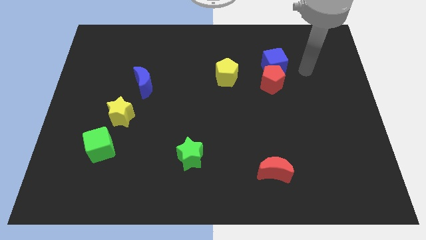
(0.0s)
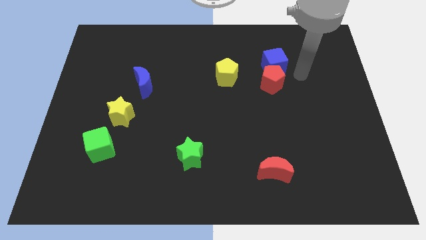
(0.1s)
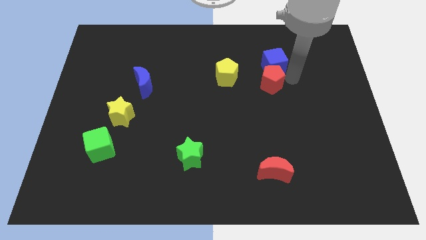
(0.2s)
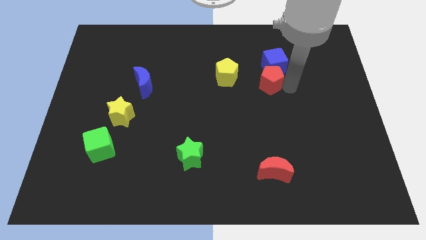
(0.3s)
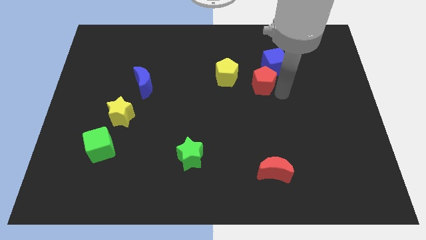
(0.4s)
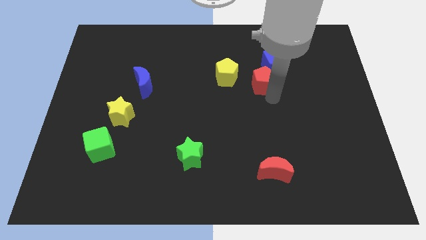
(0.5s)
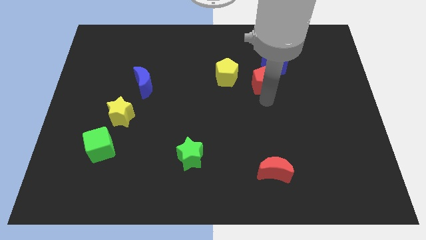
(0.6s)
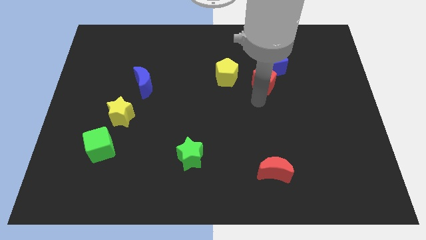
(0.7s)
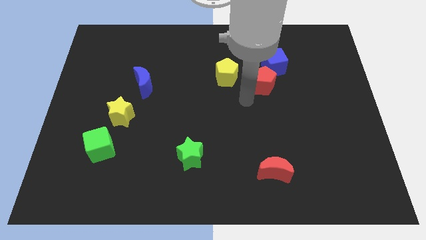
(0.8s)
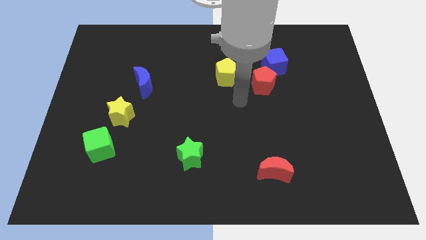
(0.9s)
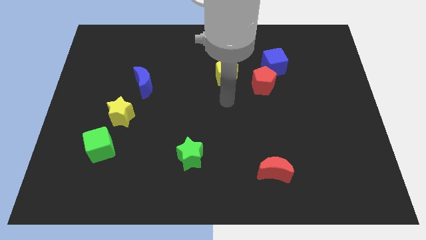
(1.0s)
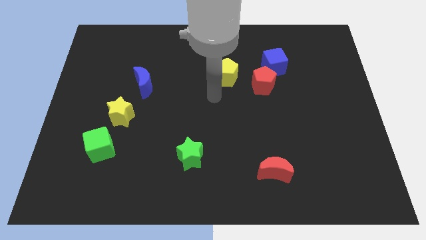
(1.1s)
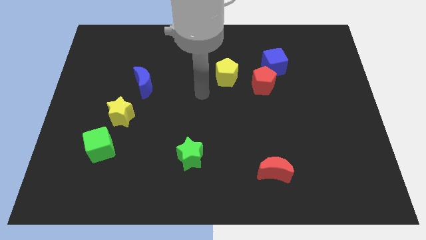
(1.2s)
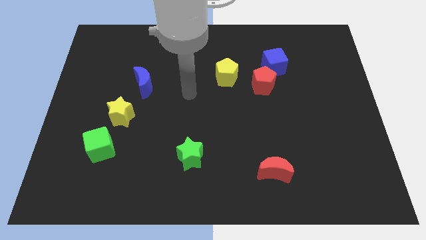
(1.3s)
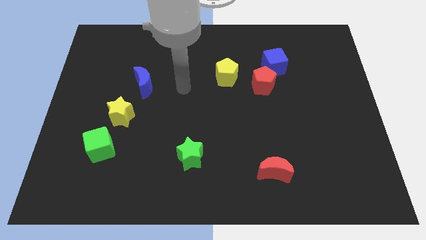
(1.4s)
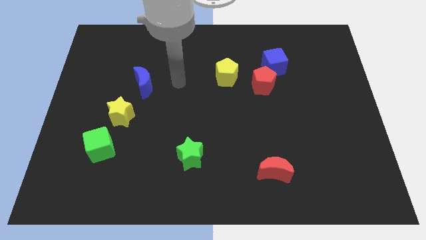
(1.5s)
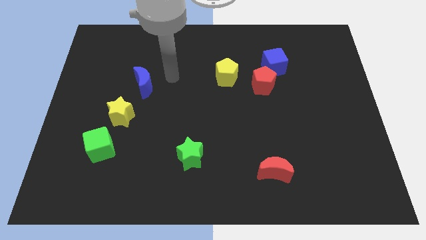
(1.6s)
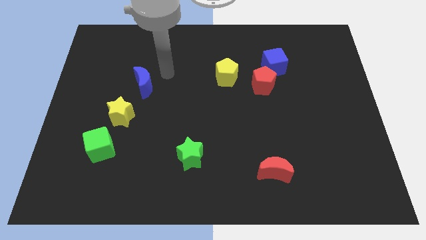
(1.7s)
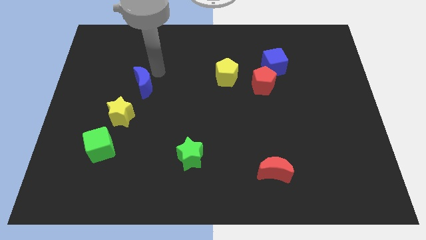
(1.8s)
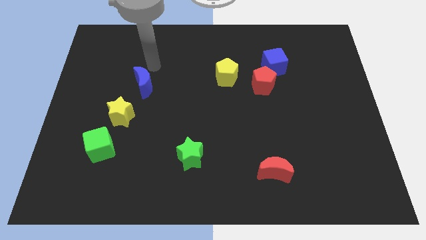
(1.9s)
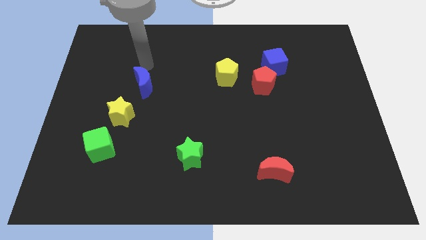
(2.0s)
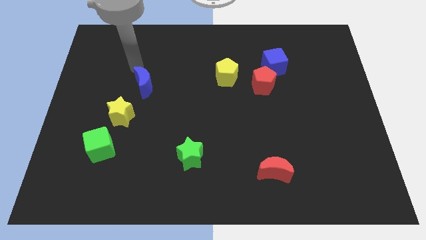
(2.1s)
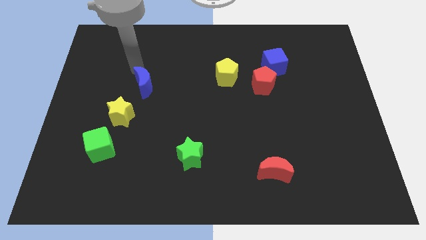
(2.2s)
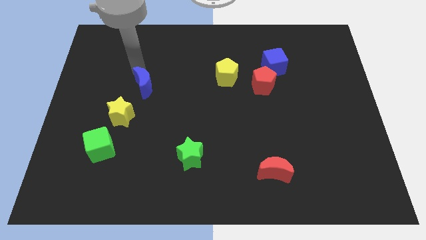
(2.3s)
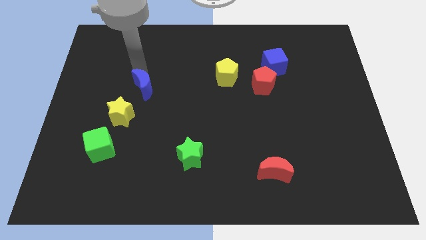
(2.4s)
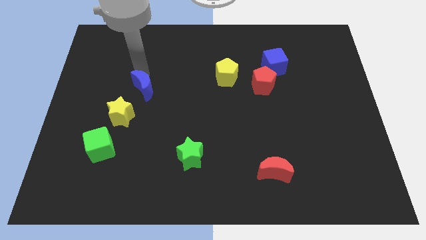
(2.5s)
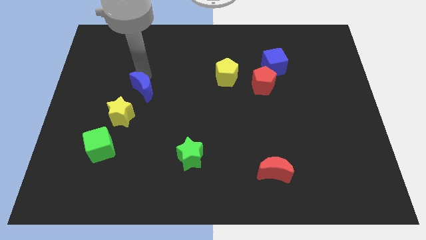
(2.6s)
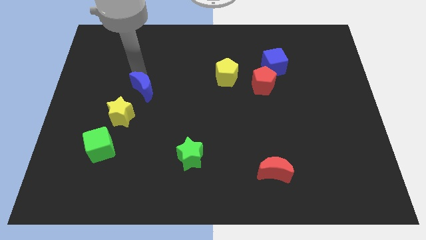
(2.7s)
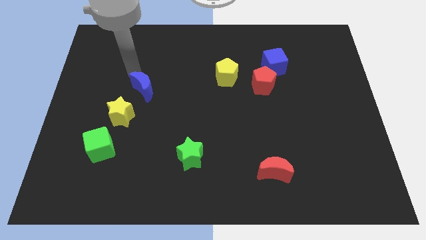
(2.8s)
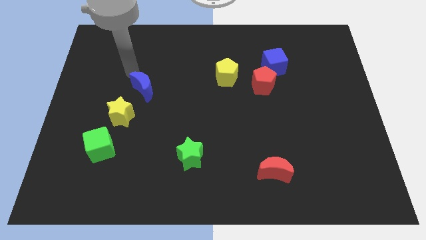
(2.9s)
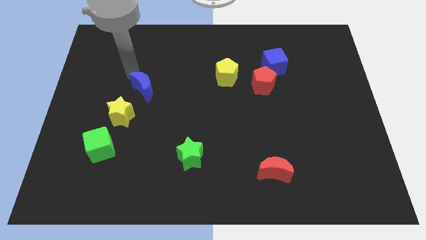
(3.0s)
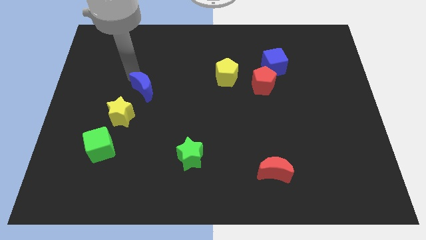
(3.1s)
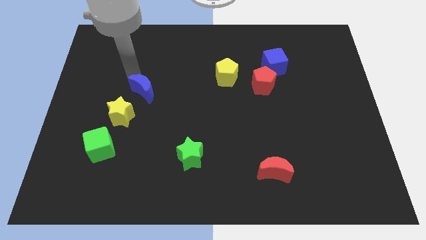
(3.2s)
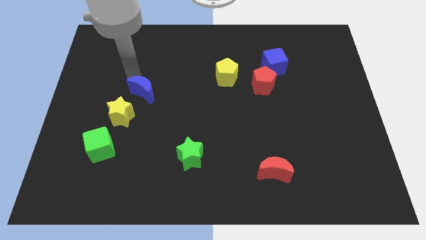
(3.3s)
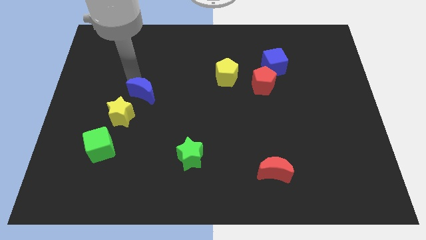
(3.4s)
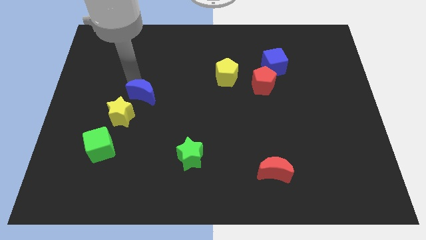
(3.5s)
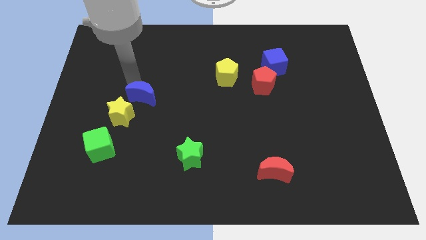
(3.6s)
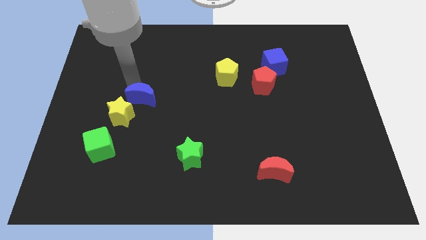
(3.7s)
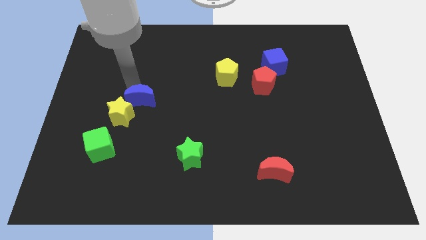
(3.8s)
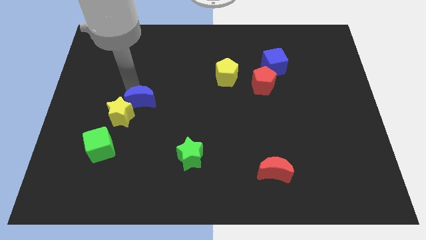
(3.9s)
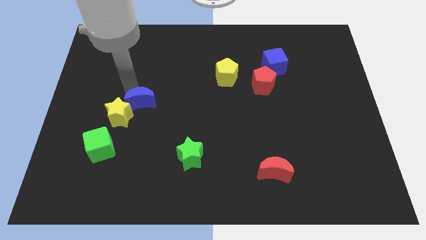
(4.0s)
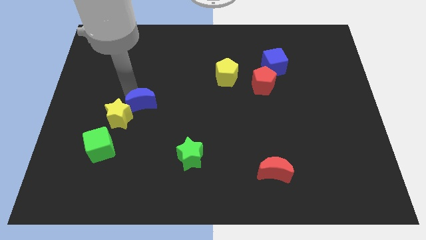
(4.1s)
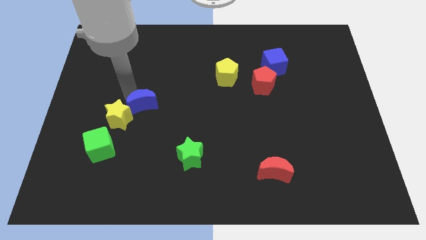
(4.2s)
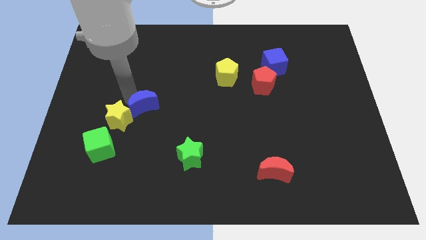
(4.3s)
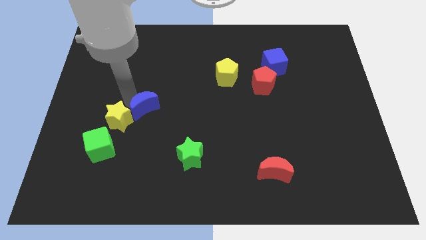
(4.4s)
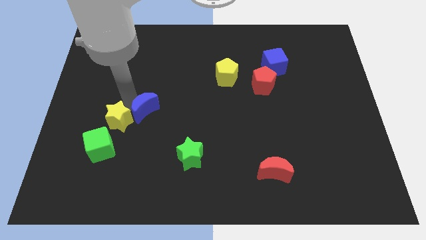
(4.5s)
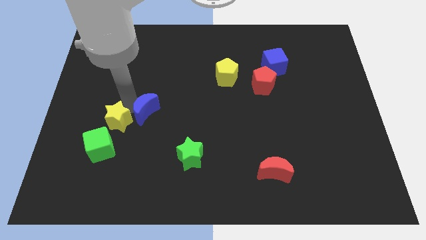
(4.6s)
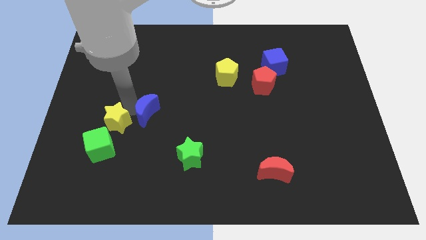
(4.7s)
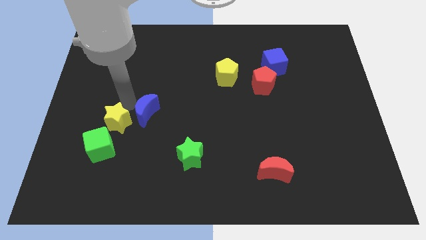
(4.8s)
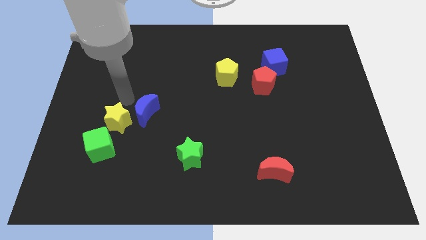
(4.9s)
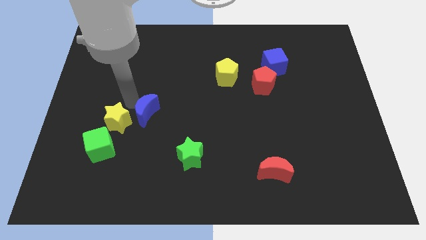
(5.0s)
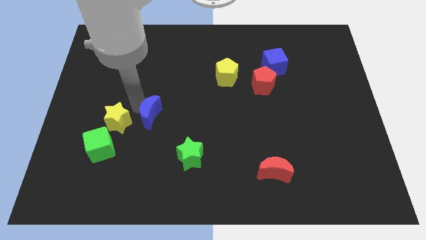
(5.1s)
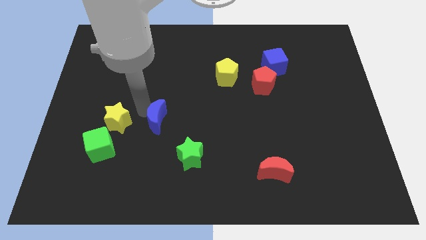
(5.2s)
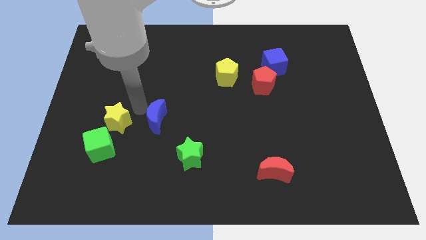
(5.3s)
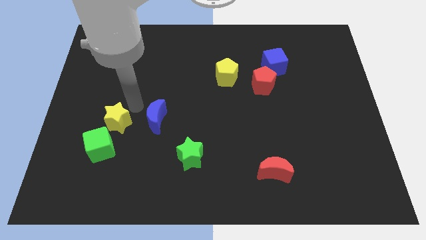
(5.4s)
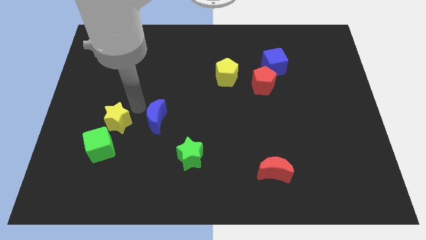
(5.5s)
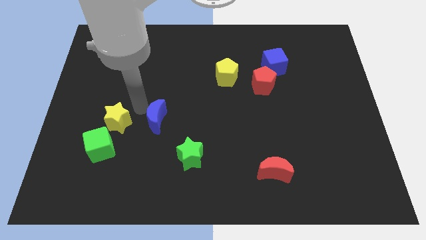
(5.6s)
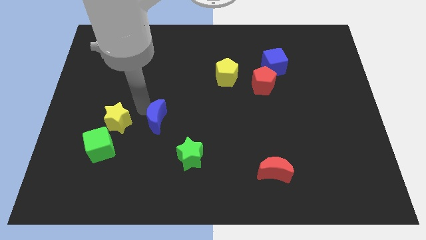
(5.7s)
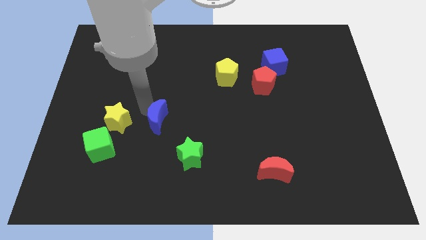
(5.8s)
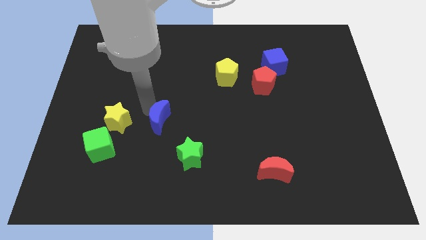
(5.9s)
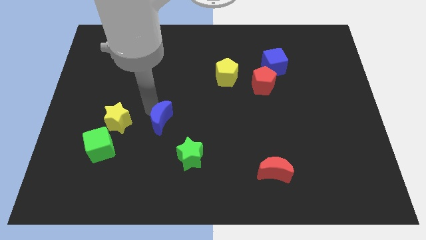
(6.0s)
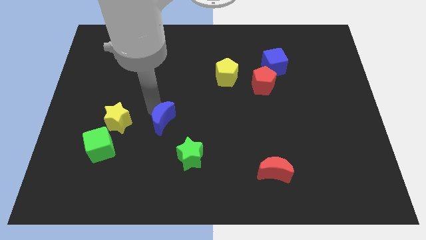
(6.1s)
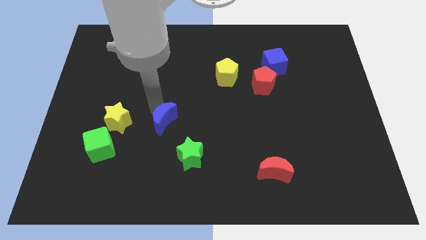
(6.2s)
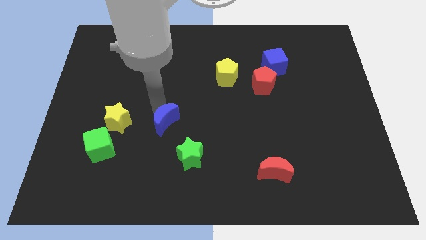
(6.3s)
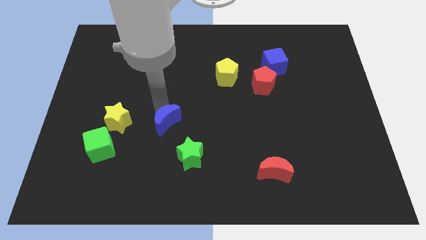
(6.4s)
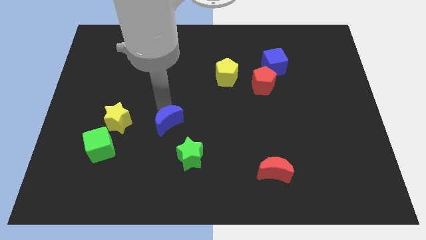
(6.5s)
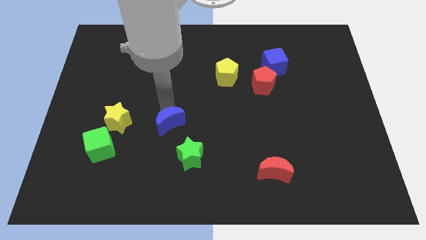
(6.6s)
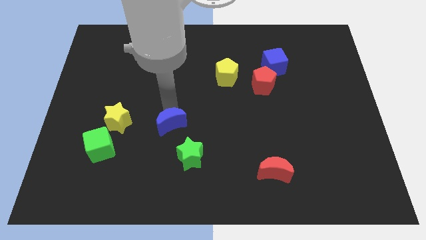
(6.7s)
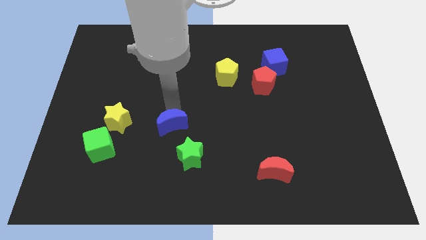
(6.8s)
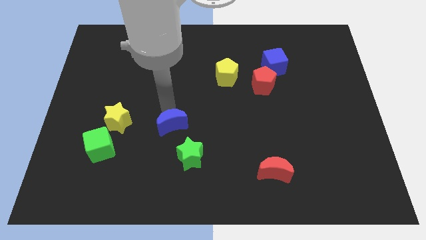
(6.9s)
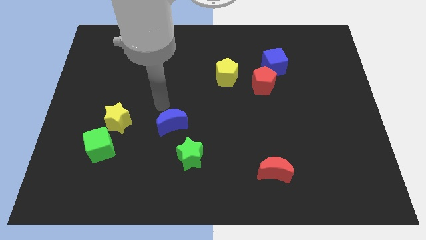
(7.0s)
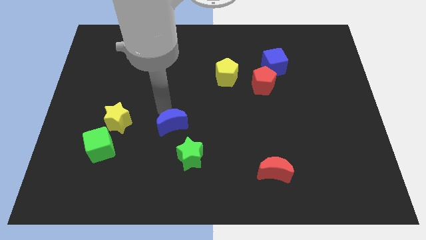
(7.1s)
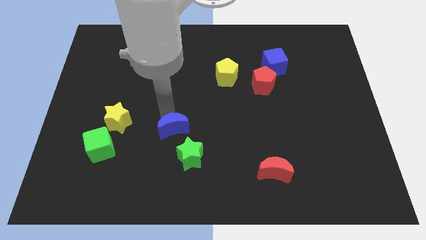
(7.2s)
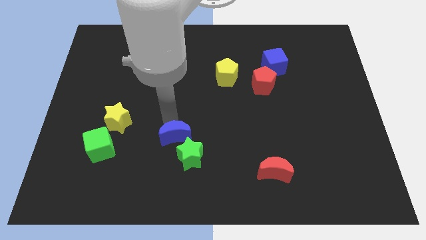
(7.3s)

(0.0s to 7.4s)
slide the blue moon to the green star

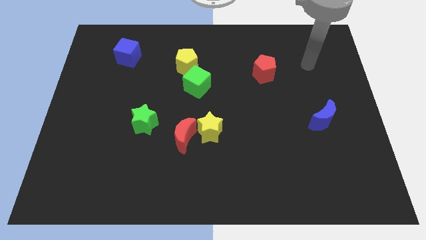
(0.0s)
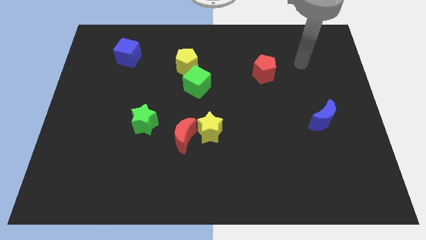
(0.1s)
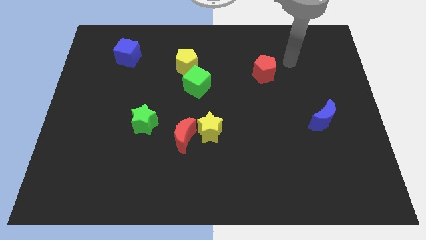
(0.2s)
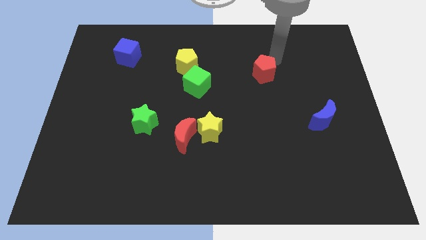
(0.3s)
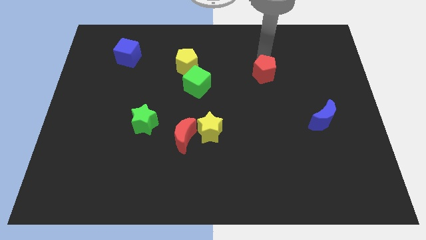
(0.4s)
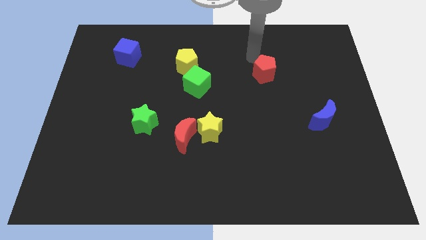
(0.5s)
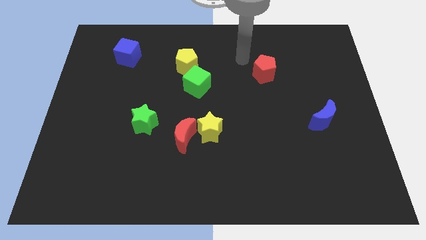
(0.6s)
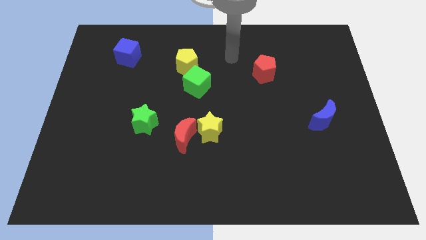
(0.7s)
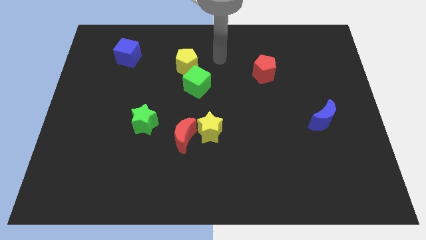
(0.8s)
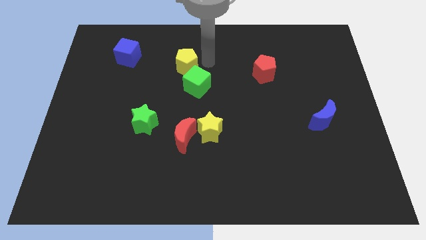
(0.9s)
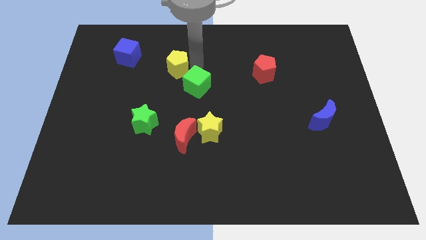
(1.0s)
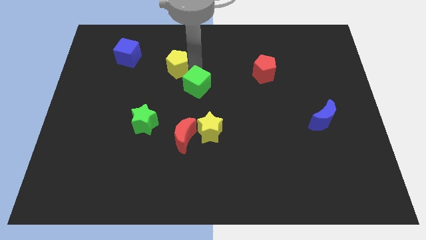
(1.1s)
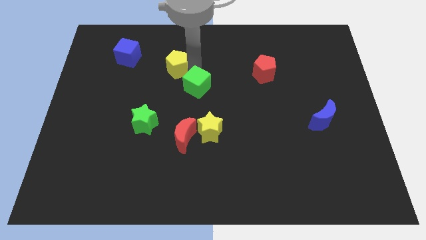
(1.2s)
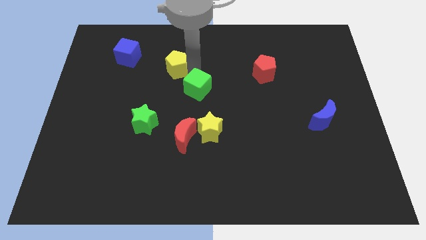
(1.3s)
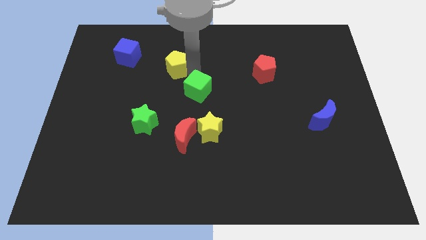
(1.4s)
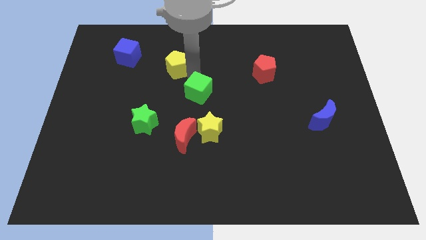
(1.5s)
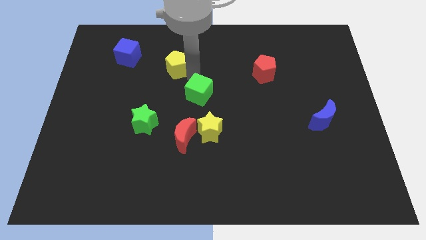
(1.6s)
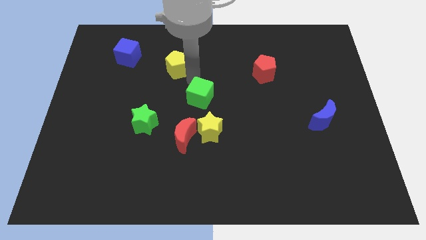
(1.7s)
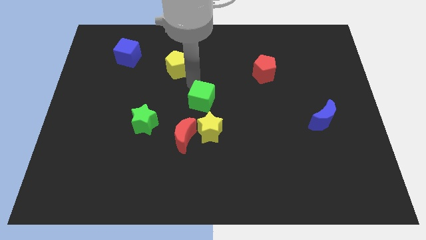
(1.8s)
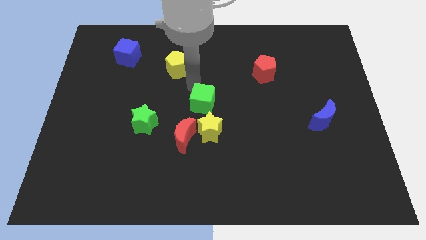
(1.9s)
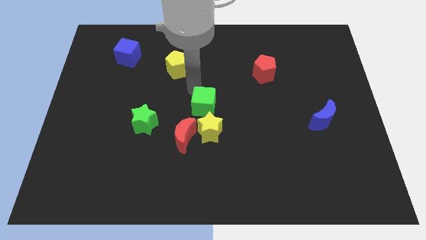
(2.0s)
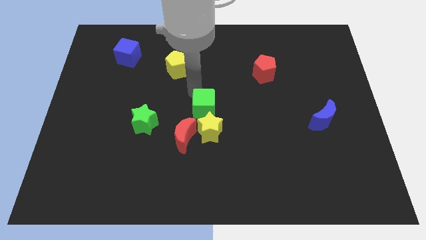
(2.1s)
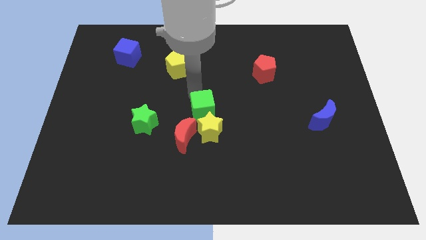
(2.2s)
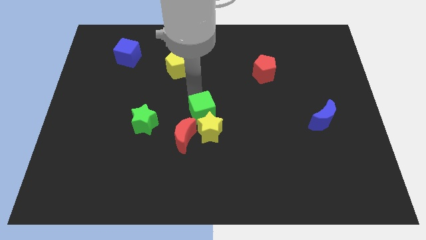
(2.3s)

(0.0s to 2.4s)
push the green cube towards the yellow star
